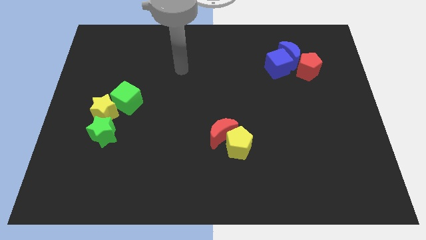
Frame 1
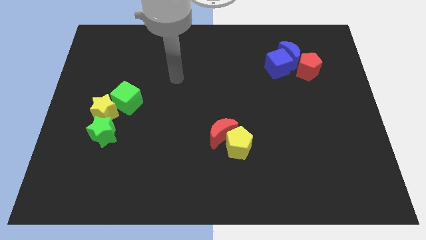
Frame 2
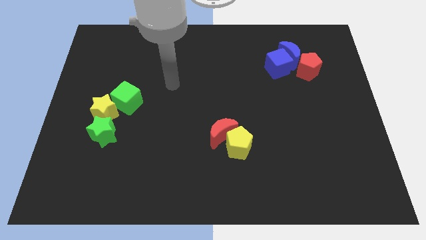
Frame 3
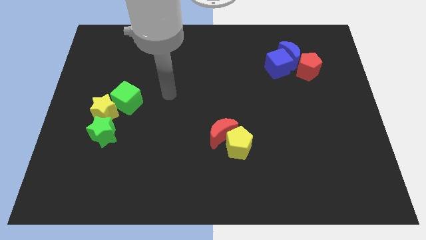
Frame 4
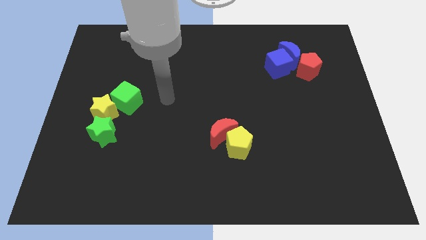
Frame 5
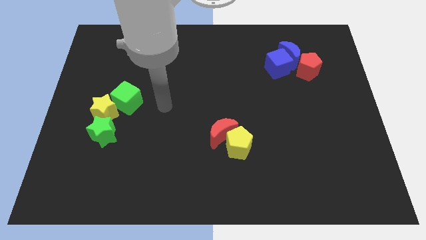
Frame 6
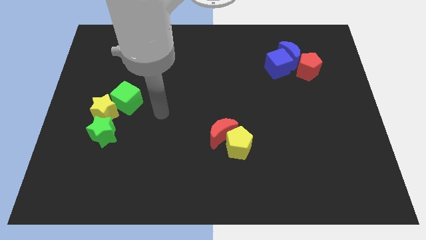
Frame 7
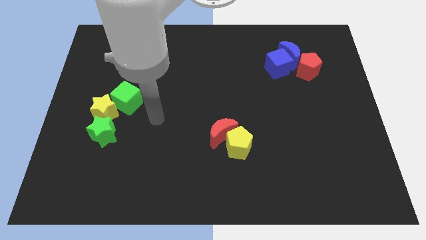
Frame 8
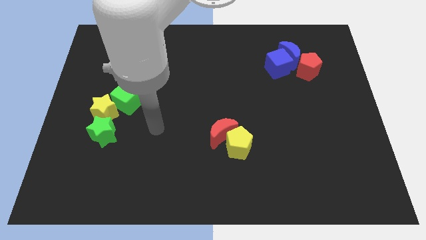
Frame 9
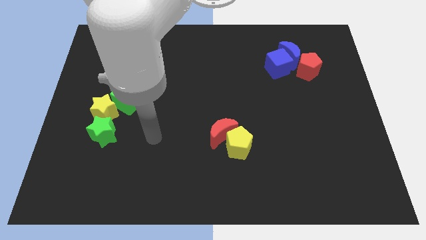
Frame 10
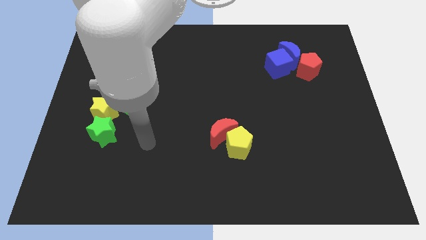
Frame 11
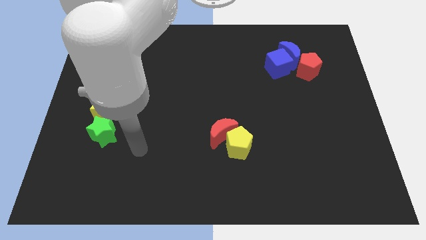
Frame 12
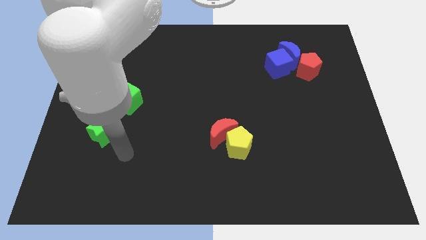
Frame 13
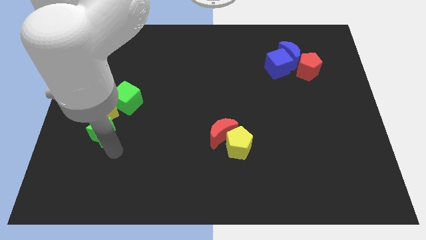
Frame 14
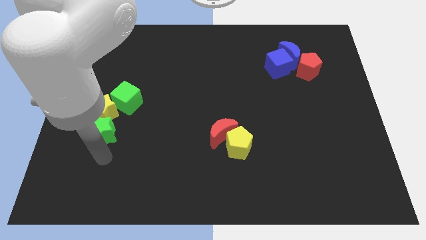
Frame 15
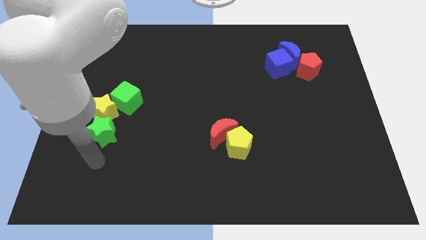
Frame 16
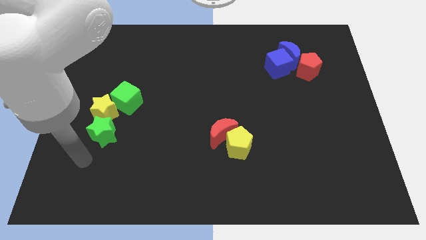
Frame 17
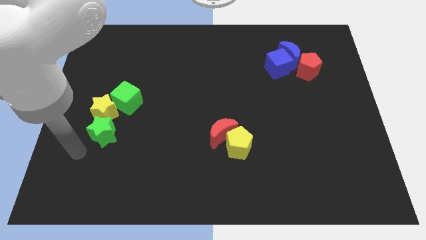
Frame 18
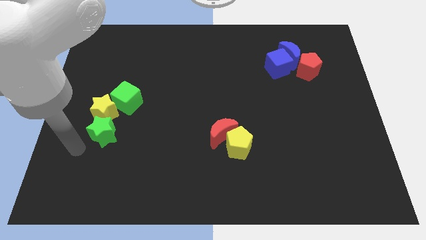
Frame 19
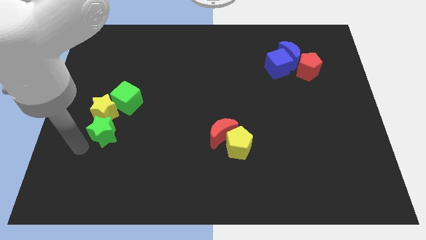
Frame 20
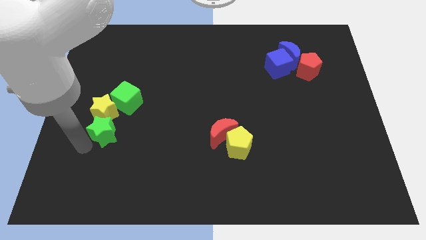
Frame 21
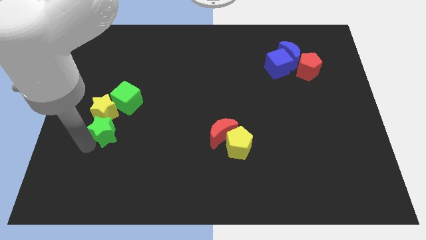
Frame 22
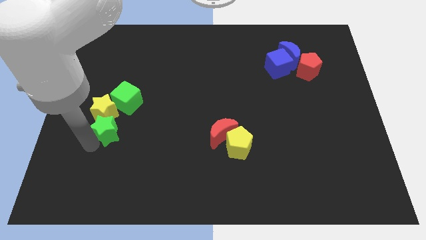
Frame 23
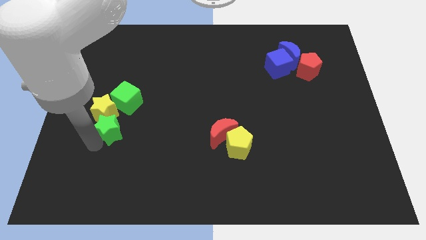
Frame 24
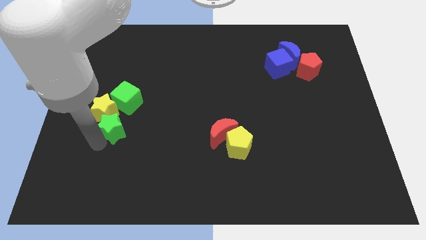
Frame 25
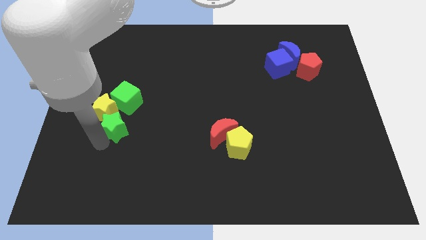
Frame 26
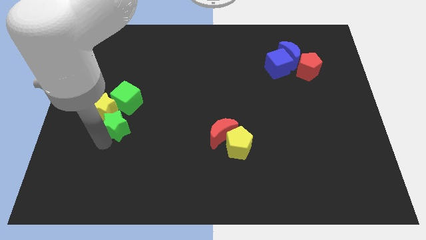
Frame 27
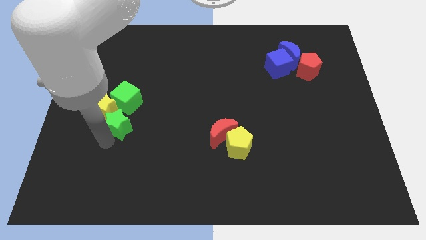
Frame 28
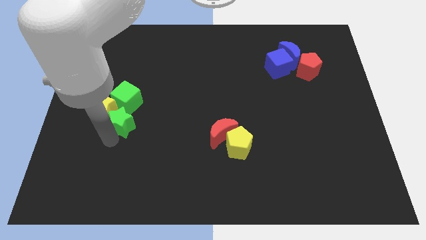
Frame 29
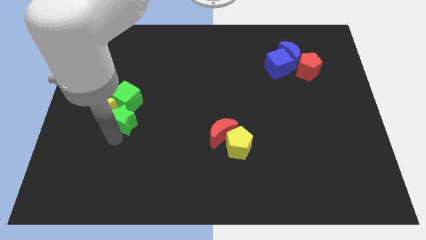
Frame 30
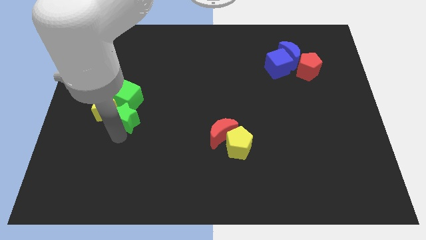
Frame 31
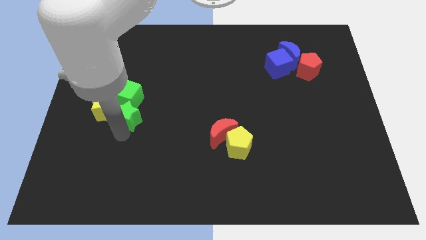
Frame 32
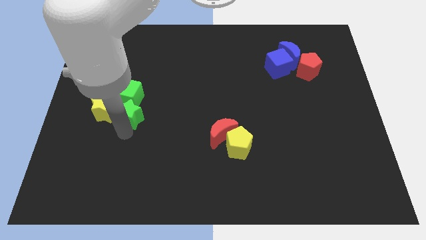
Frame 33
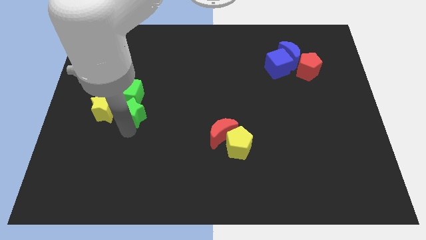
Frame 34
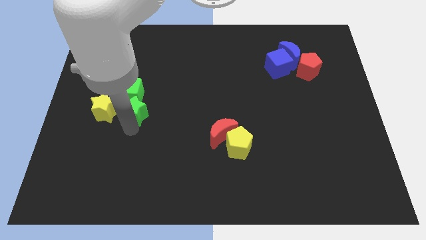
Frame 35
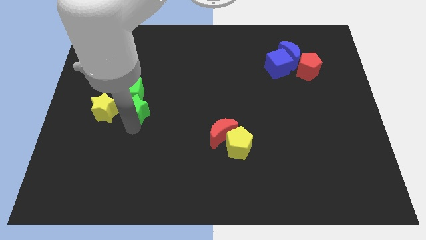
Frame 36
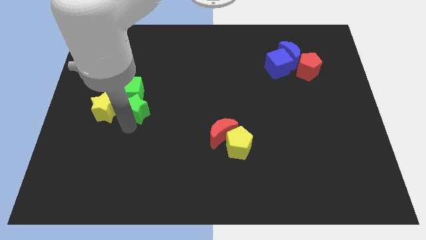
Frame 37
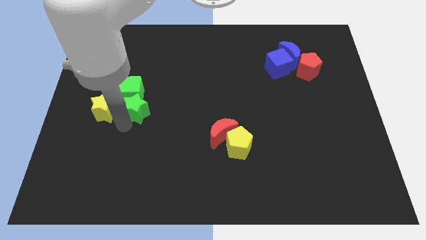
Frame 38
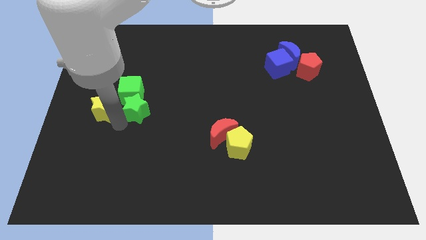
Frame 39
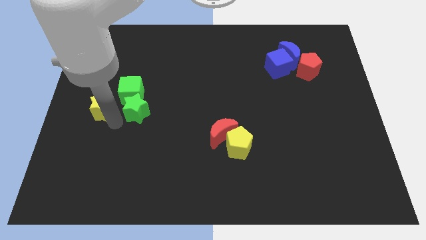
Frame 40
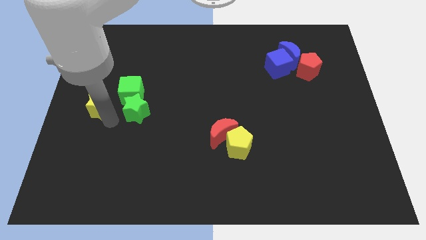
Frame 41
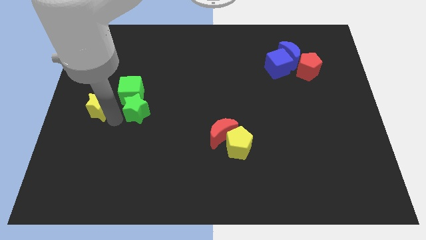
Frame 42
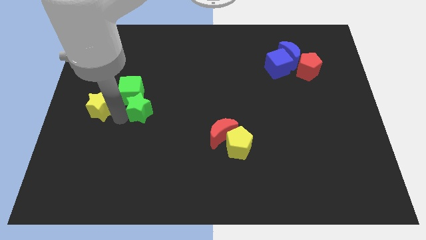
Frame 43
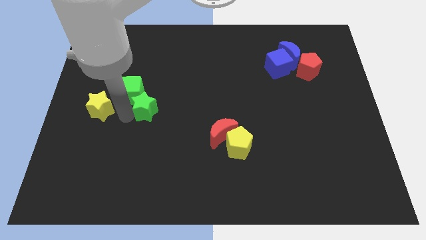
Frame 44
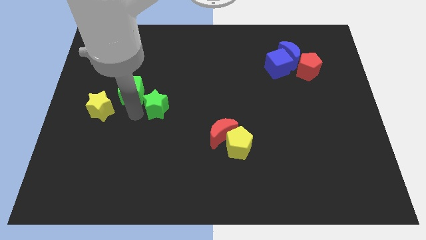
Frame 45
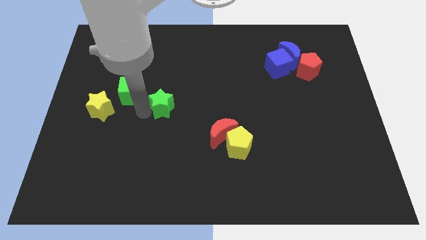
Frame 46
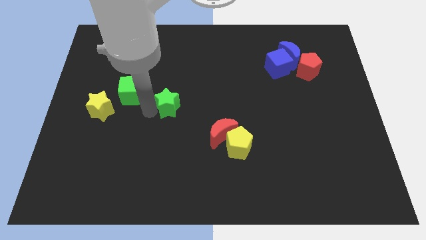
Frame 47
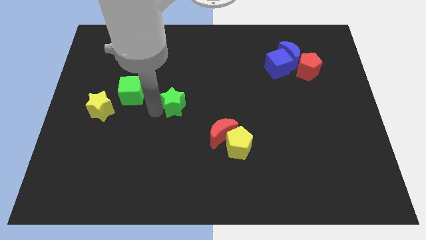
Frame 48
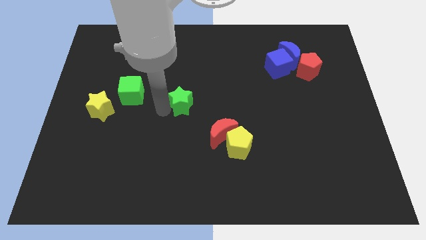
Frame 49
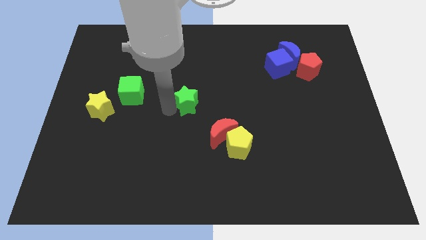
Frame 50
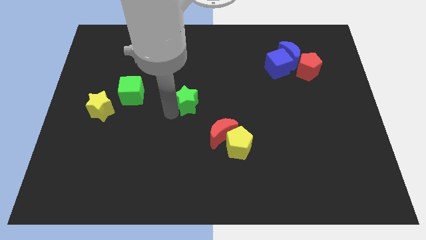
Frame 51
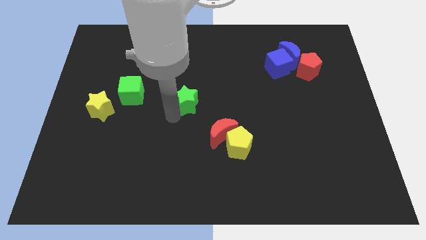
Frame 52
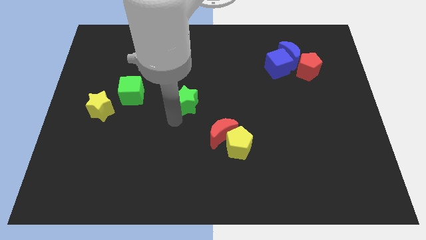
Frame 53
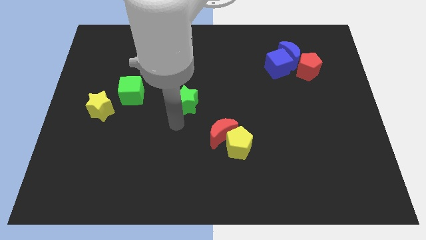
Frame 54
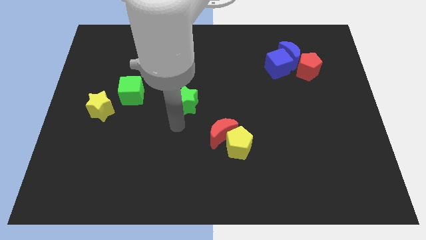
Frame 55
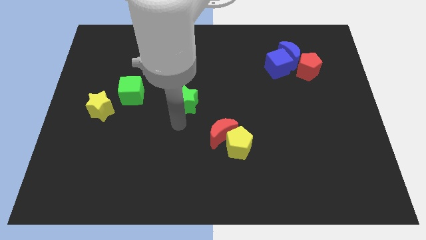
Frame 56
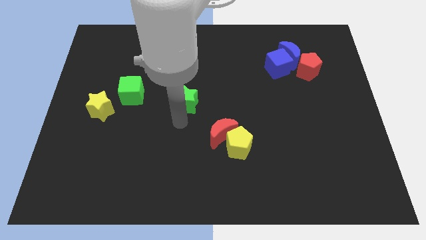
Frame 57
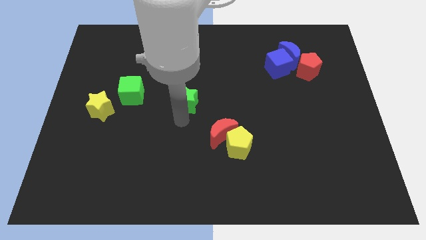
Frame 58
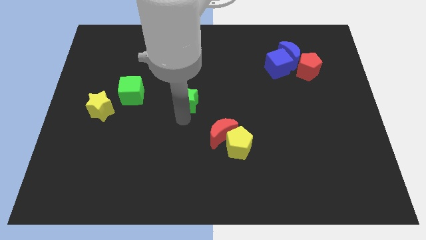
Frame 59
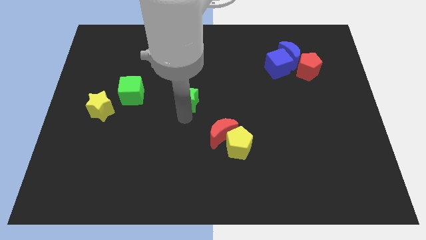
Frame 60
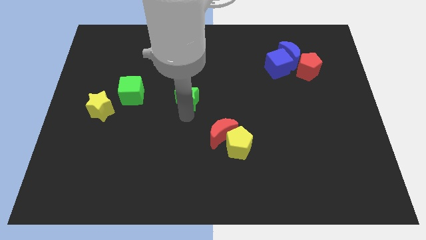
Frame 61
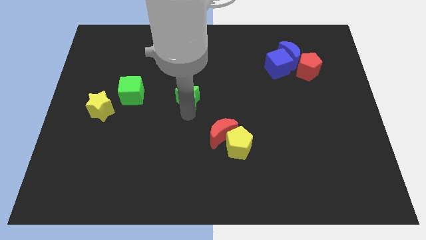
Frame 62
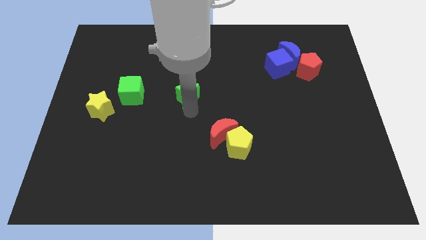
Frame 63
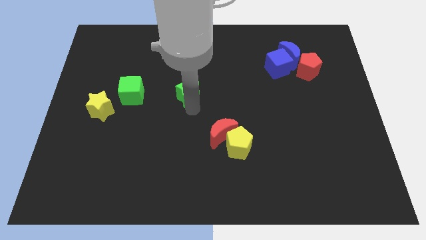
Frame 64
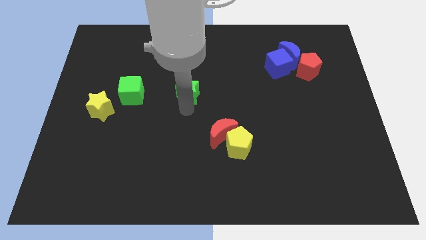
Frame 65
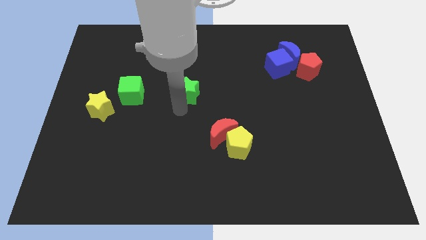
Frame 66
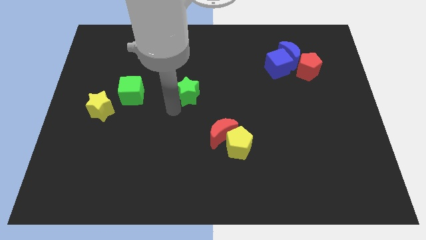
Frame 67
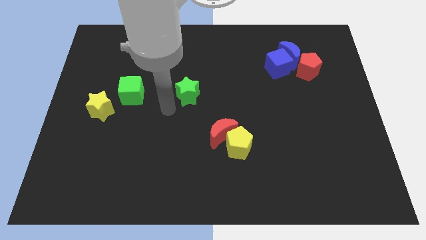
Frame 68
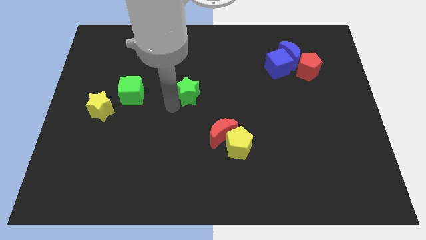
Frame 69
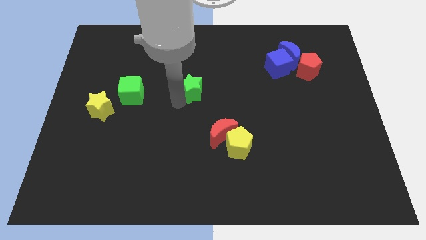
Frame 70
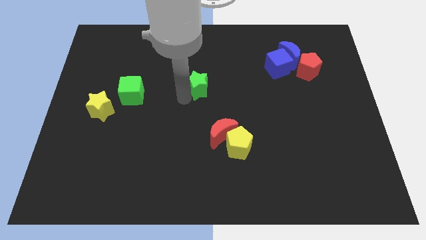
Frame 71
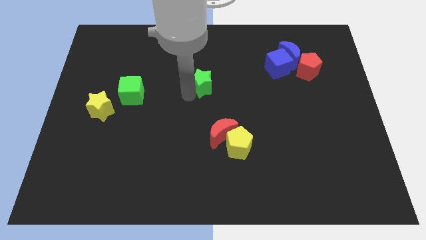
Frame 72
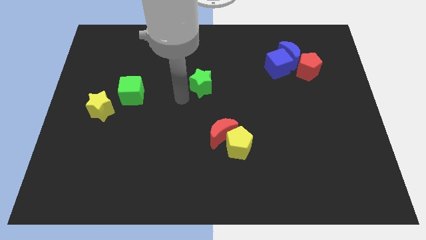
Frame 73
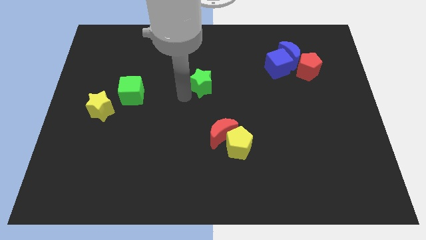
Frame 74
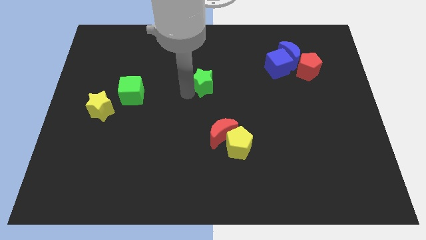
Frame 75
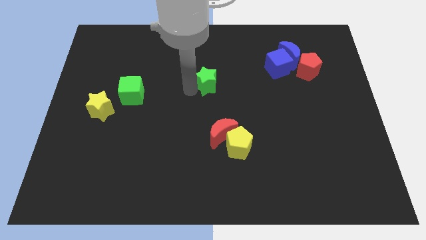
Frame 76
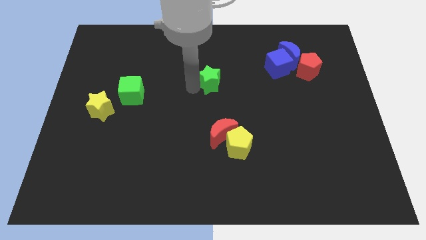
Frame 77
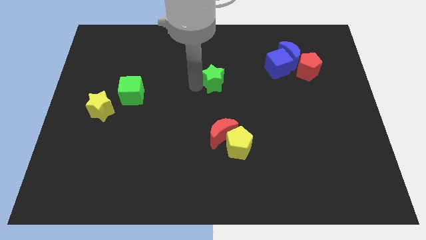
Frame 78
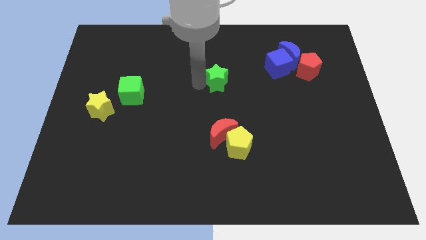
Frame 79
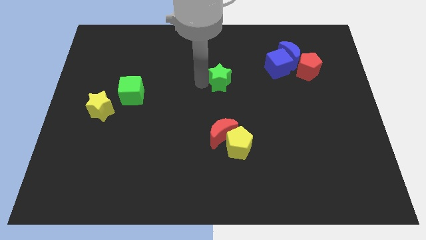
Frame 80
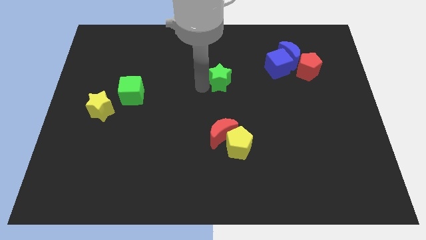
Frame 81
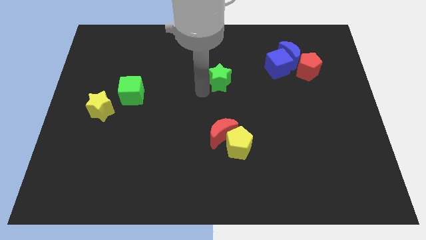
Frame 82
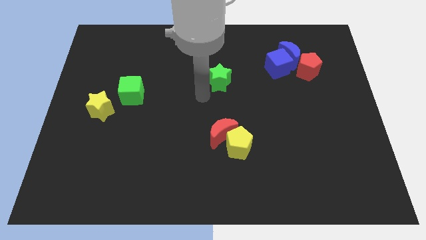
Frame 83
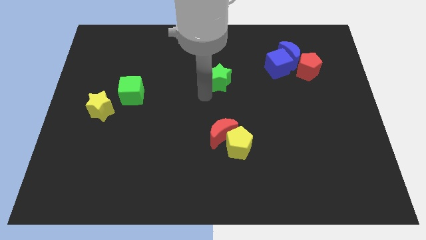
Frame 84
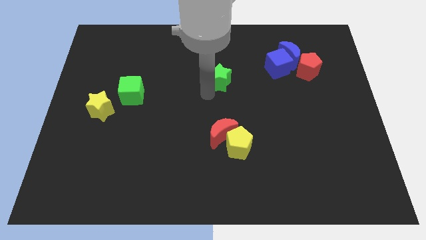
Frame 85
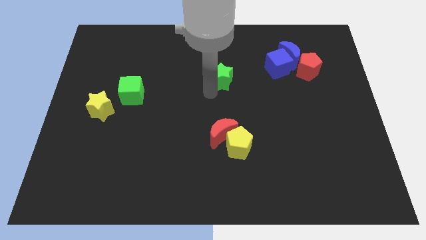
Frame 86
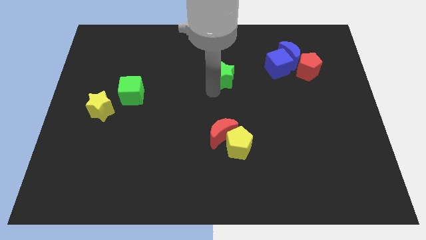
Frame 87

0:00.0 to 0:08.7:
move the green star to the left side of the blue cube
